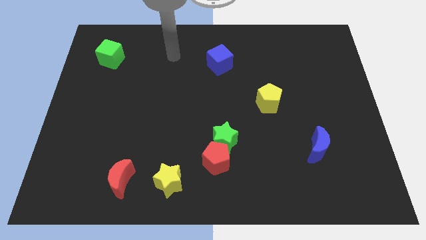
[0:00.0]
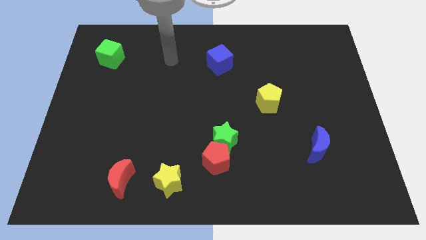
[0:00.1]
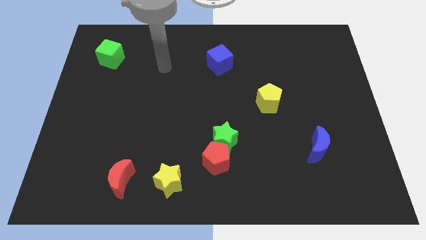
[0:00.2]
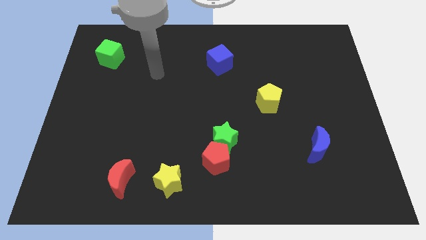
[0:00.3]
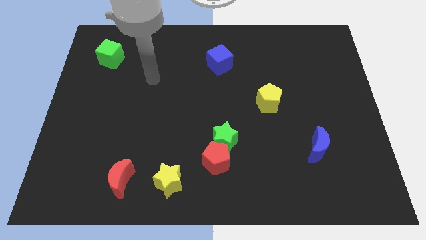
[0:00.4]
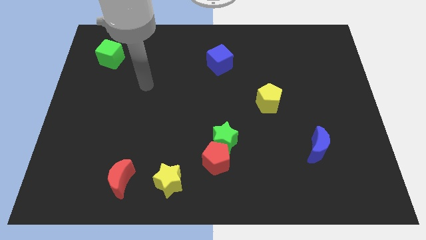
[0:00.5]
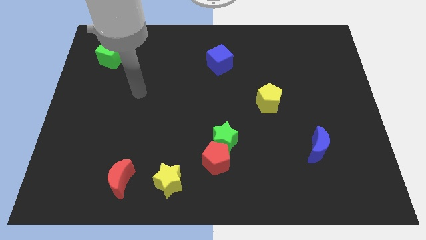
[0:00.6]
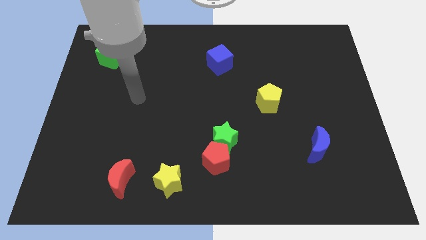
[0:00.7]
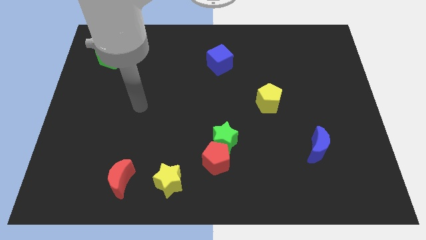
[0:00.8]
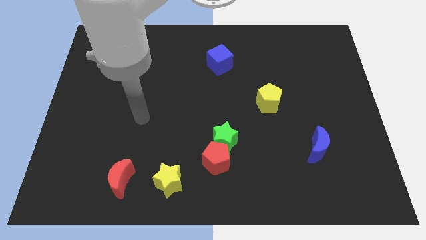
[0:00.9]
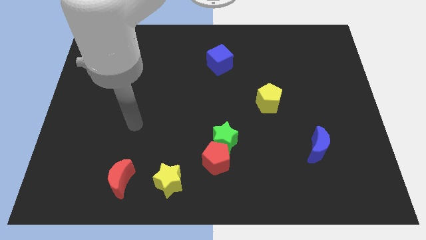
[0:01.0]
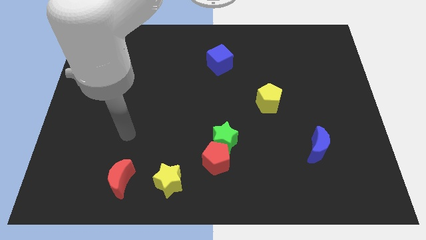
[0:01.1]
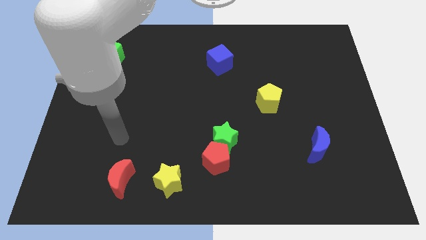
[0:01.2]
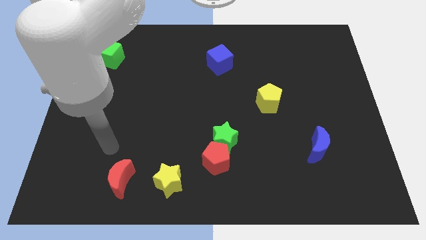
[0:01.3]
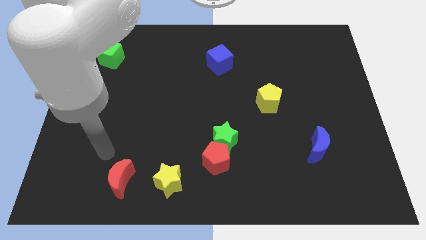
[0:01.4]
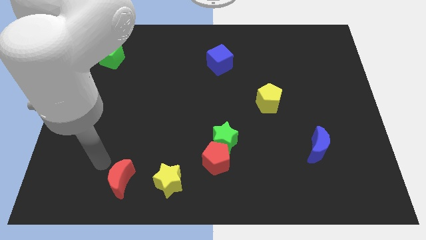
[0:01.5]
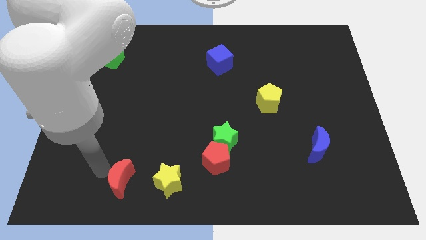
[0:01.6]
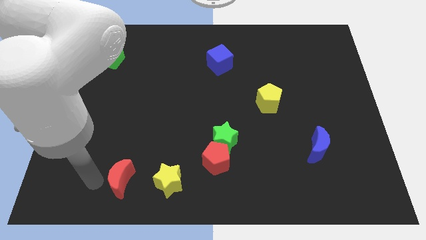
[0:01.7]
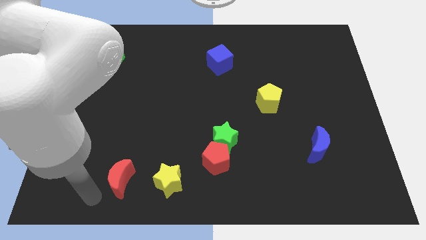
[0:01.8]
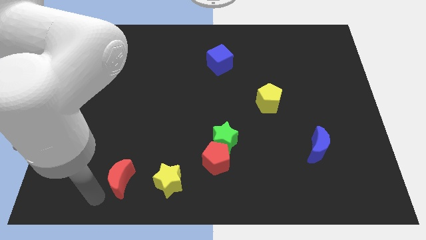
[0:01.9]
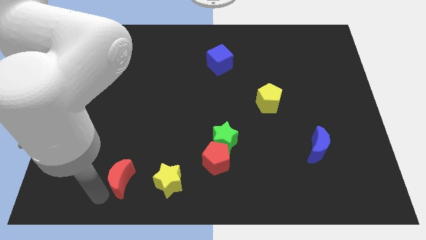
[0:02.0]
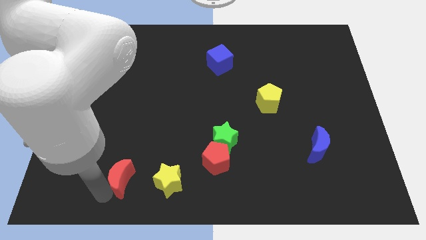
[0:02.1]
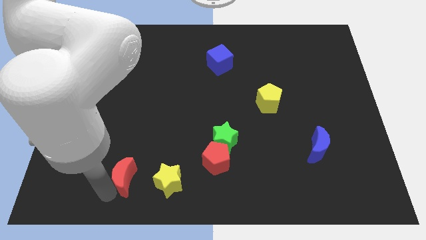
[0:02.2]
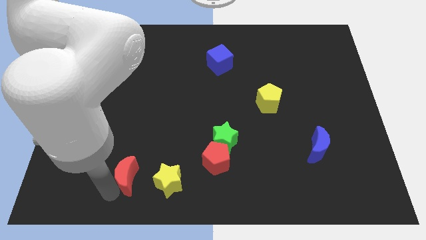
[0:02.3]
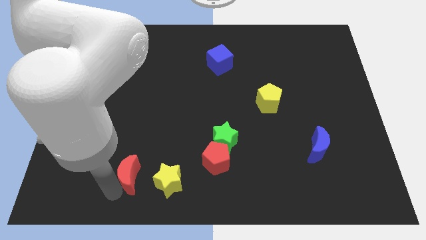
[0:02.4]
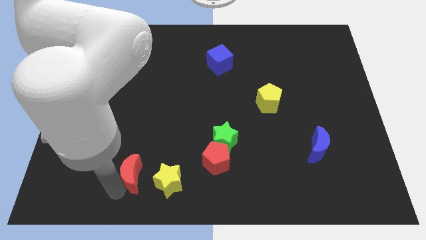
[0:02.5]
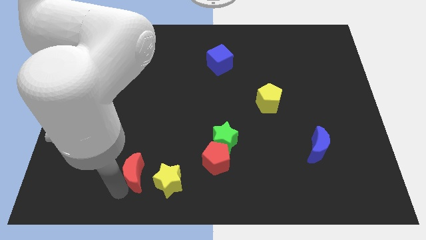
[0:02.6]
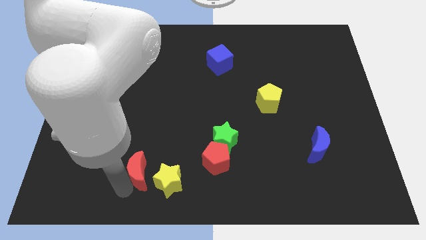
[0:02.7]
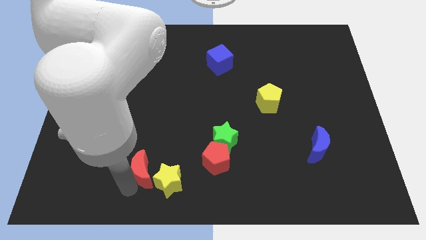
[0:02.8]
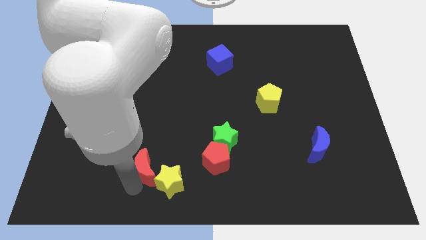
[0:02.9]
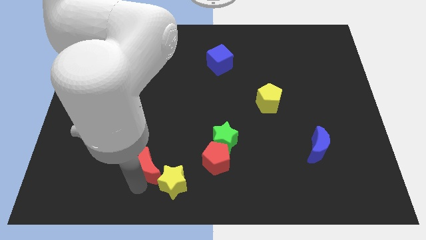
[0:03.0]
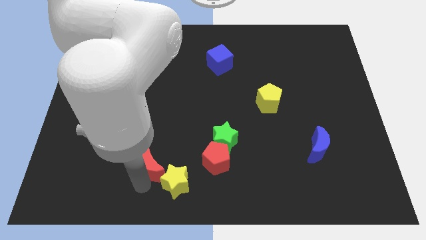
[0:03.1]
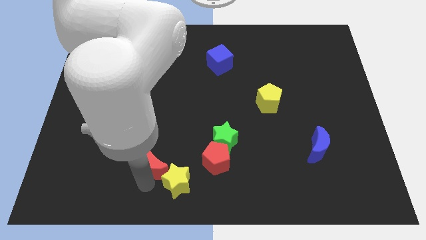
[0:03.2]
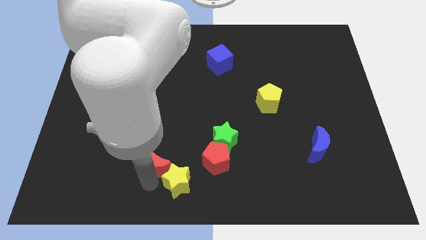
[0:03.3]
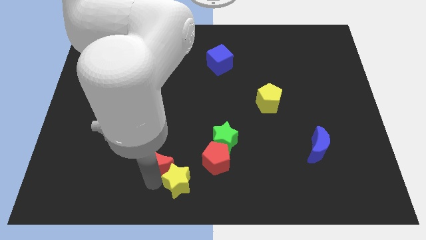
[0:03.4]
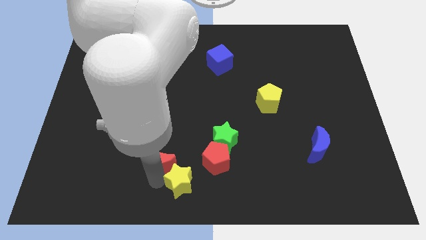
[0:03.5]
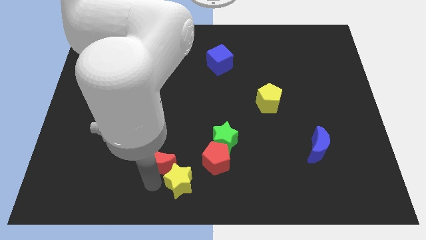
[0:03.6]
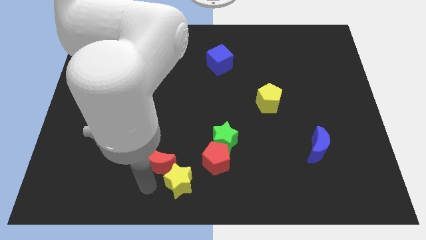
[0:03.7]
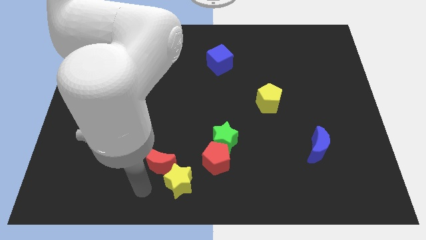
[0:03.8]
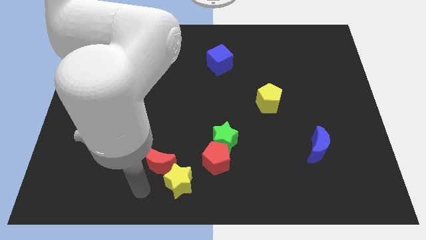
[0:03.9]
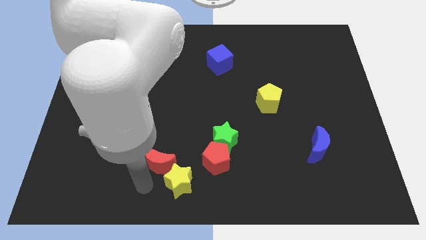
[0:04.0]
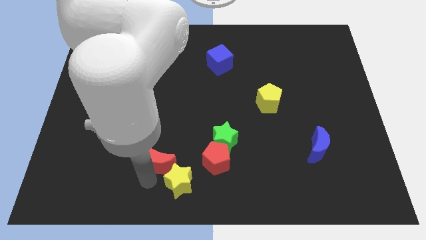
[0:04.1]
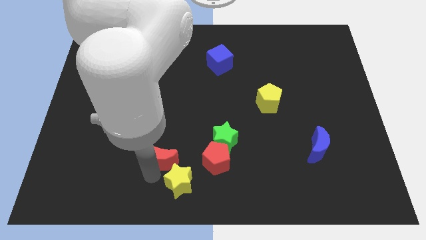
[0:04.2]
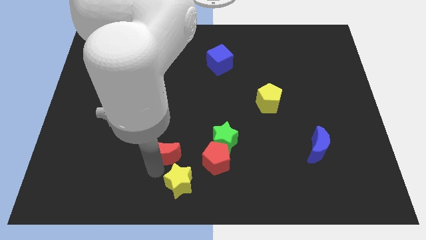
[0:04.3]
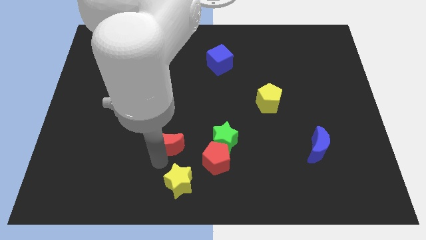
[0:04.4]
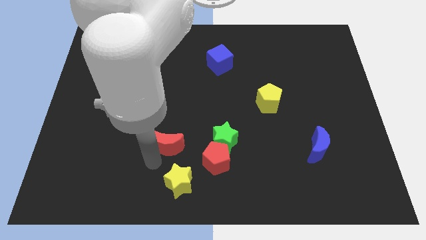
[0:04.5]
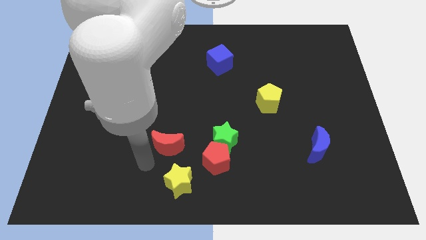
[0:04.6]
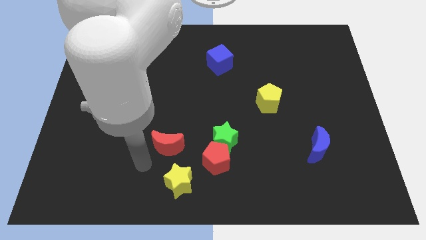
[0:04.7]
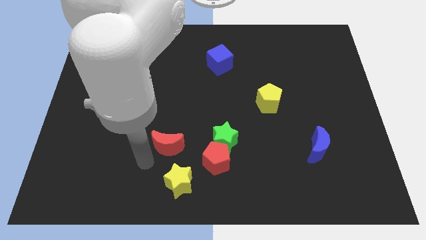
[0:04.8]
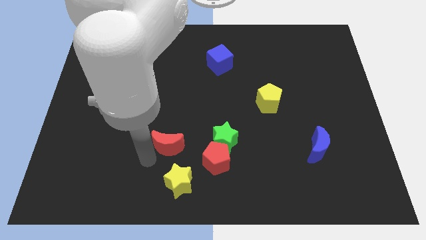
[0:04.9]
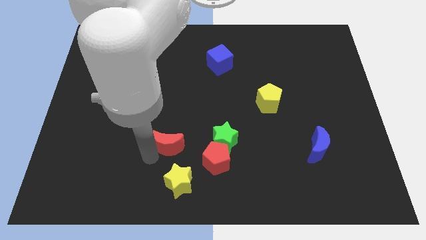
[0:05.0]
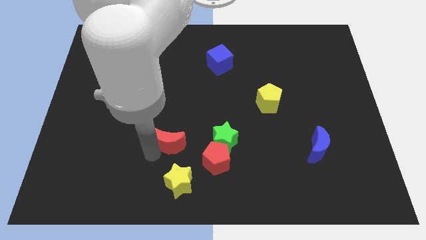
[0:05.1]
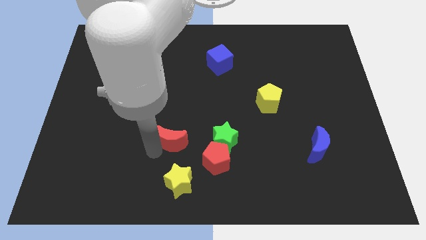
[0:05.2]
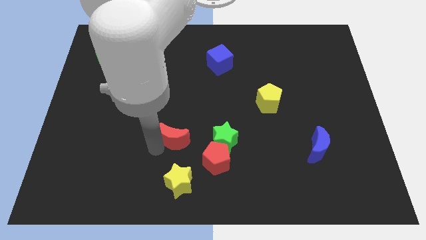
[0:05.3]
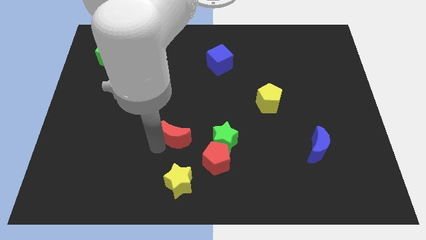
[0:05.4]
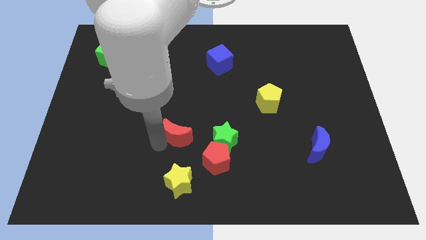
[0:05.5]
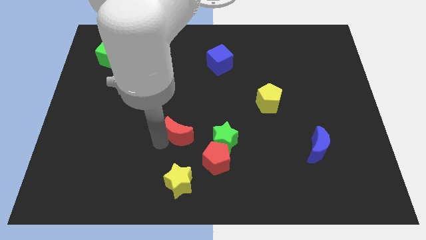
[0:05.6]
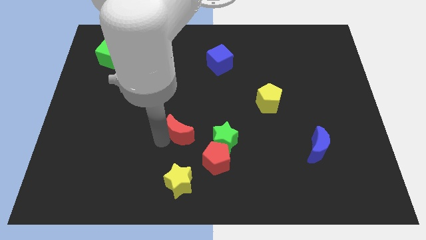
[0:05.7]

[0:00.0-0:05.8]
move the red moon to the center of the board
